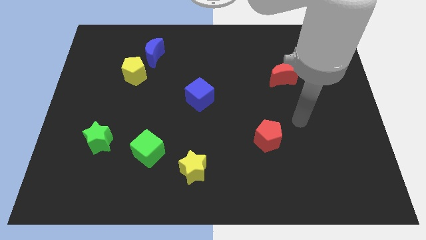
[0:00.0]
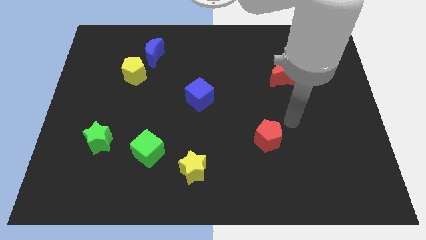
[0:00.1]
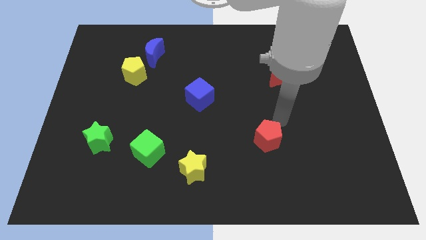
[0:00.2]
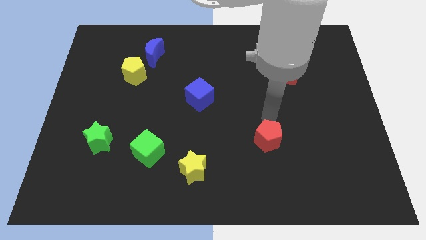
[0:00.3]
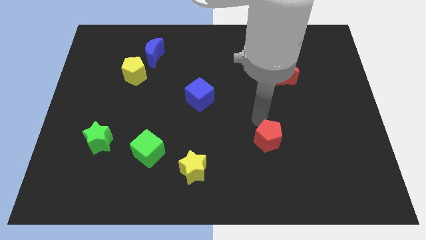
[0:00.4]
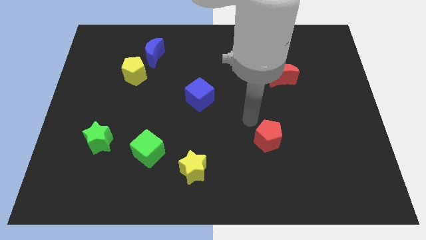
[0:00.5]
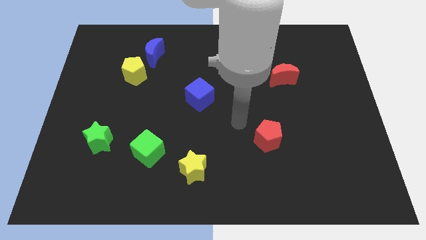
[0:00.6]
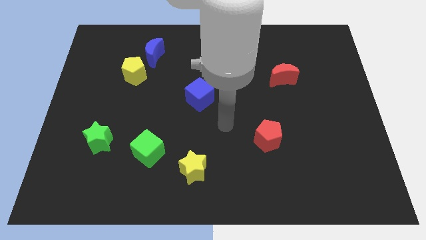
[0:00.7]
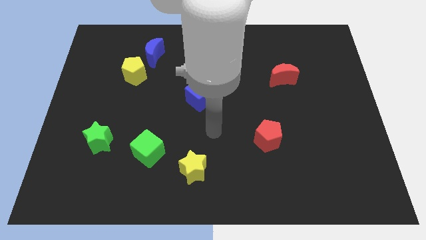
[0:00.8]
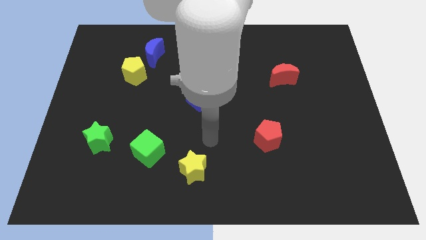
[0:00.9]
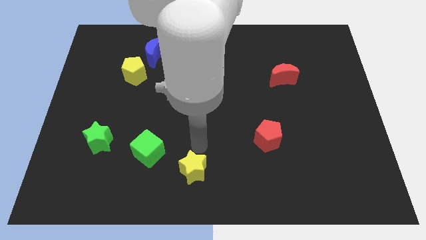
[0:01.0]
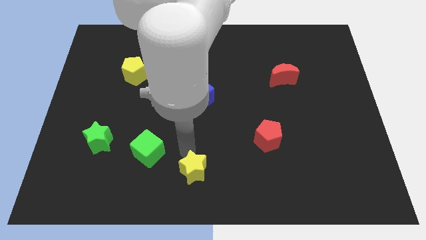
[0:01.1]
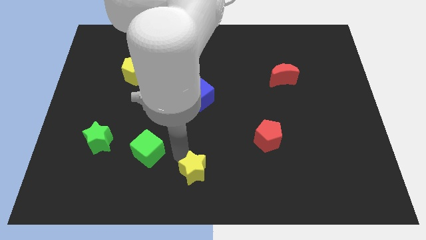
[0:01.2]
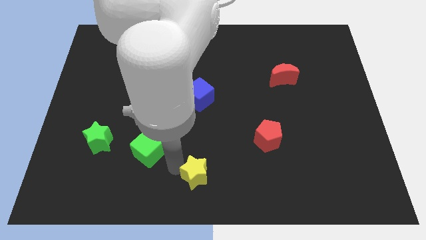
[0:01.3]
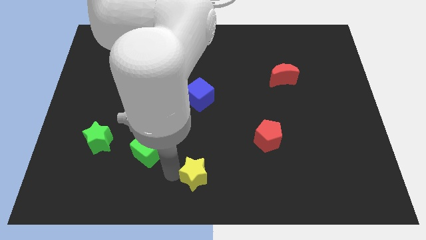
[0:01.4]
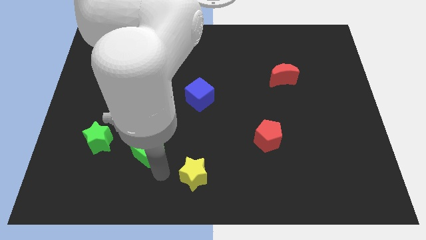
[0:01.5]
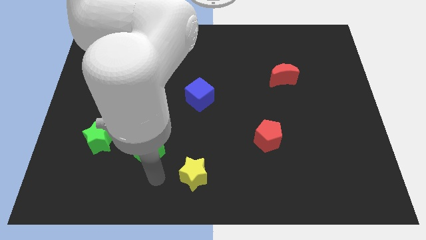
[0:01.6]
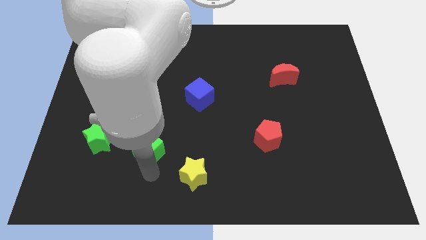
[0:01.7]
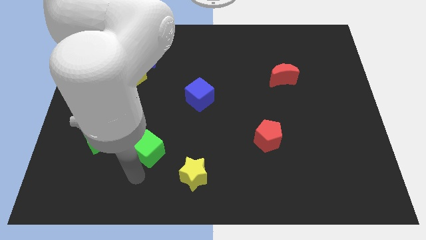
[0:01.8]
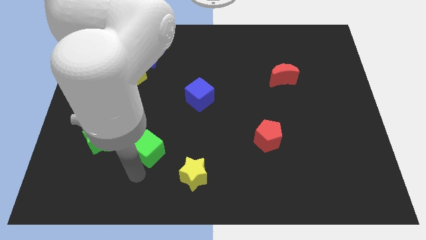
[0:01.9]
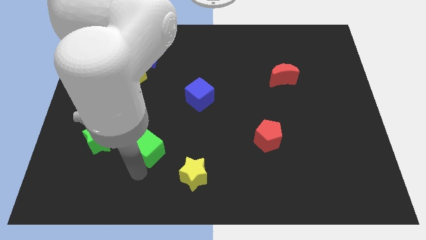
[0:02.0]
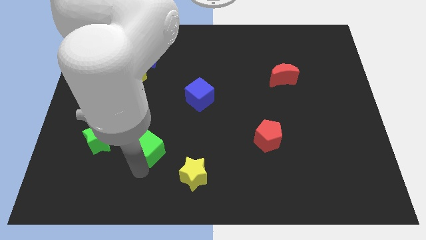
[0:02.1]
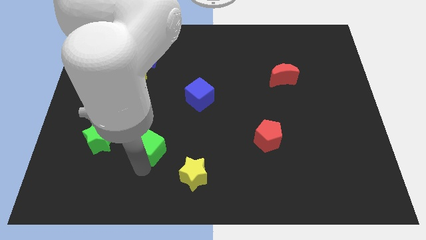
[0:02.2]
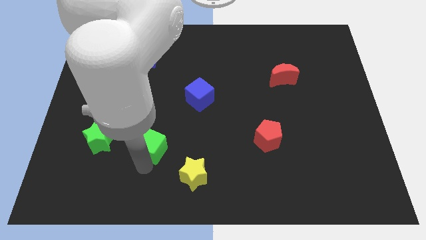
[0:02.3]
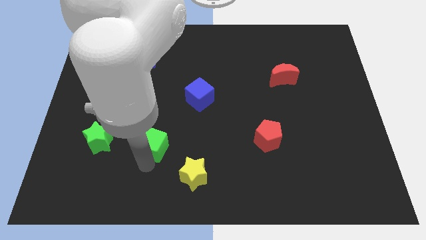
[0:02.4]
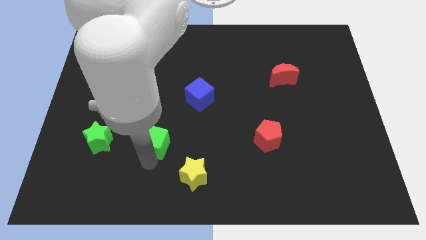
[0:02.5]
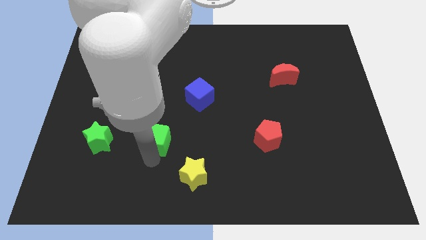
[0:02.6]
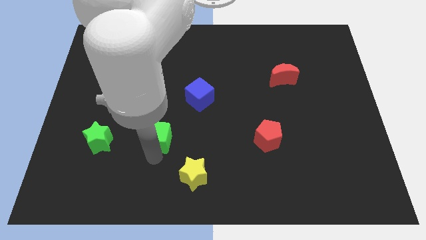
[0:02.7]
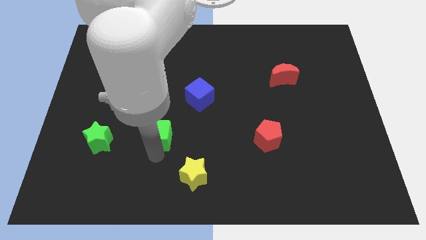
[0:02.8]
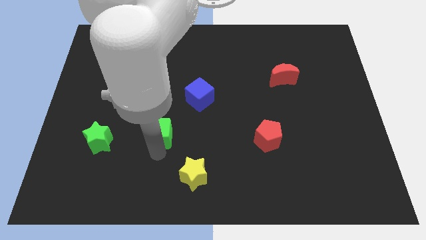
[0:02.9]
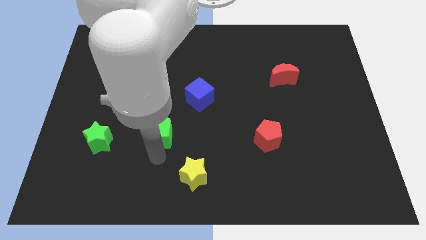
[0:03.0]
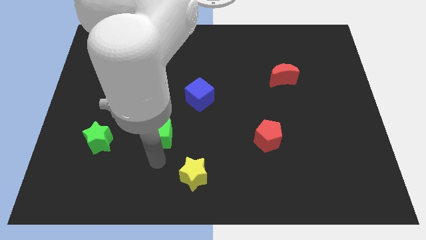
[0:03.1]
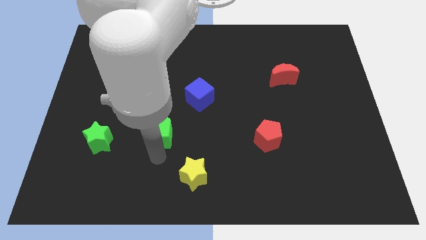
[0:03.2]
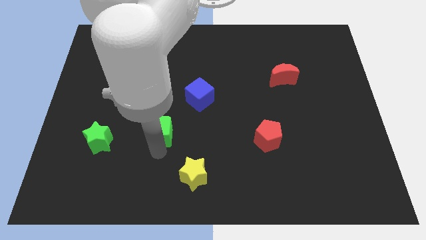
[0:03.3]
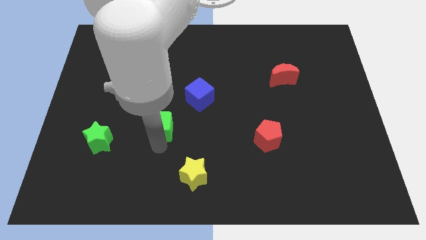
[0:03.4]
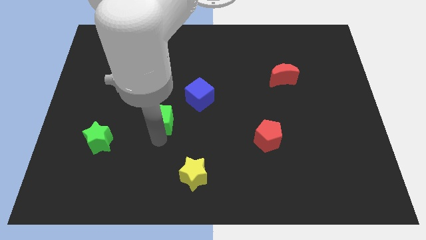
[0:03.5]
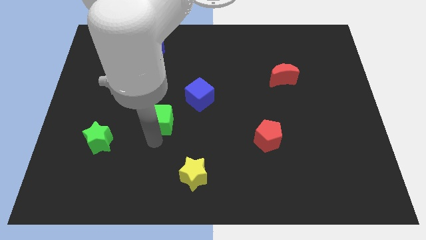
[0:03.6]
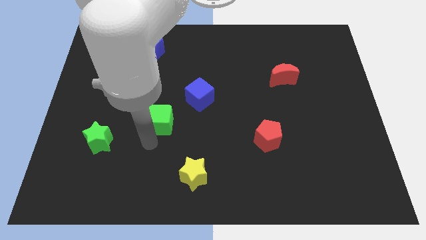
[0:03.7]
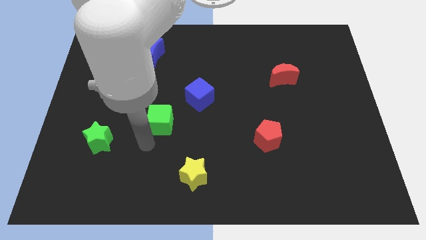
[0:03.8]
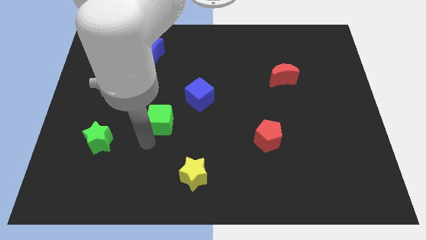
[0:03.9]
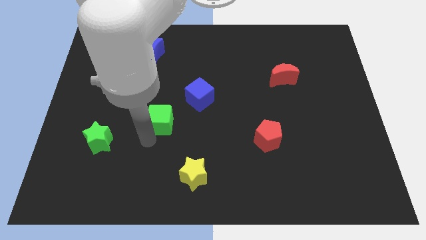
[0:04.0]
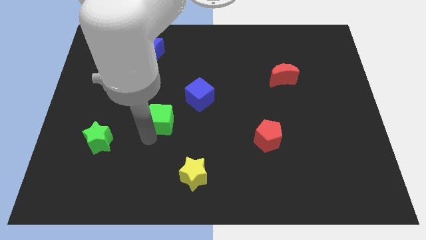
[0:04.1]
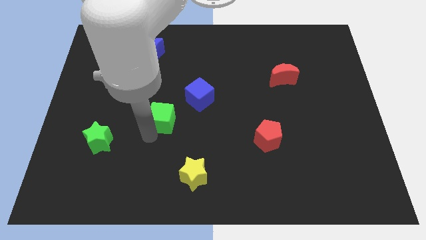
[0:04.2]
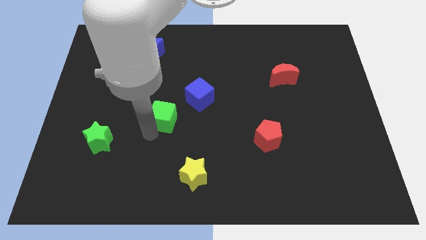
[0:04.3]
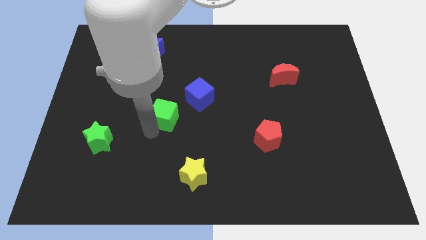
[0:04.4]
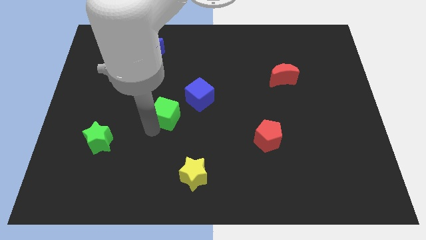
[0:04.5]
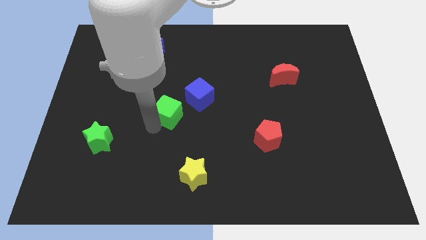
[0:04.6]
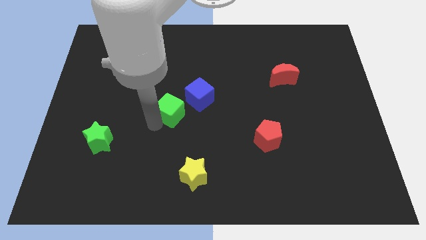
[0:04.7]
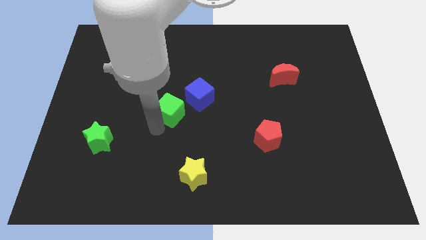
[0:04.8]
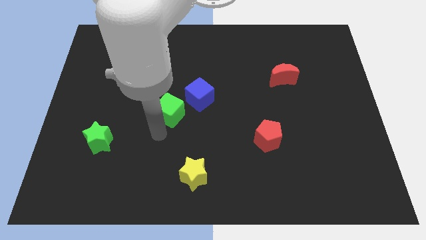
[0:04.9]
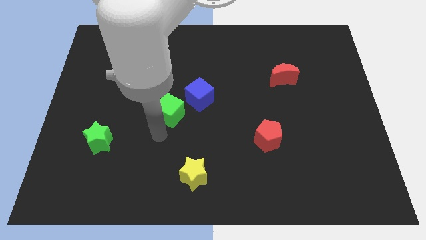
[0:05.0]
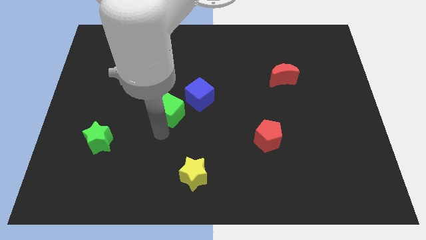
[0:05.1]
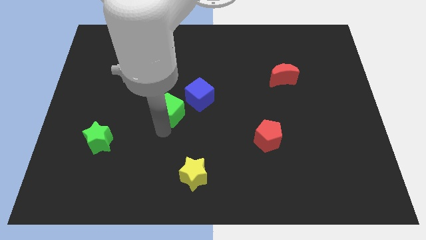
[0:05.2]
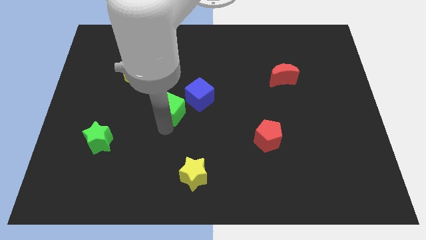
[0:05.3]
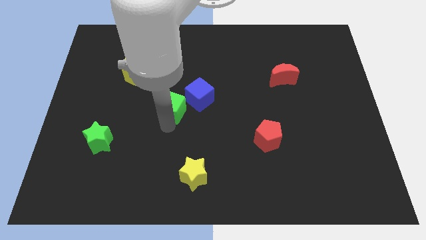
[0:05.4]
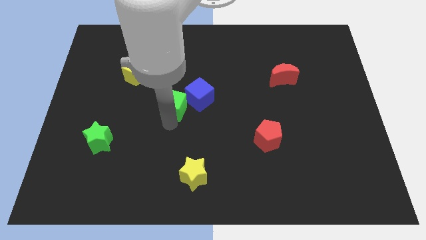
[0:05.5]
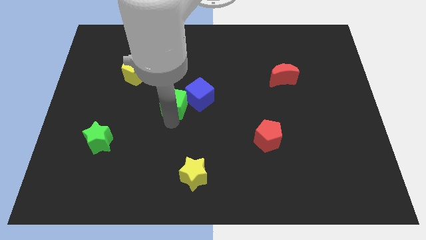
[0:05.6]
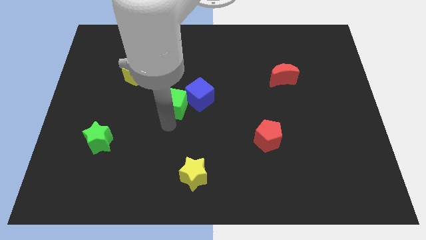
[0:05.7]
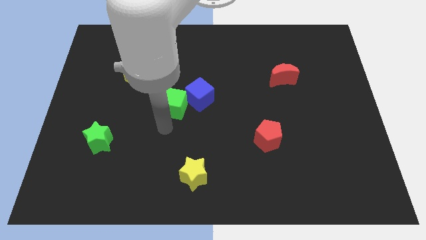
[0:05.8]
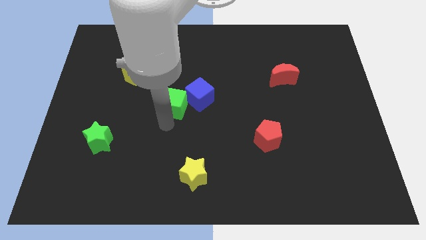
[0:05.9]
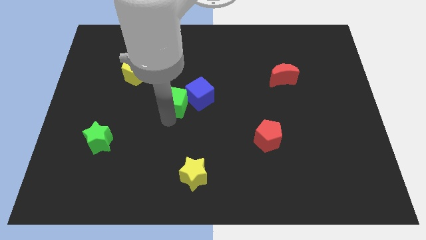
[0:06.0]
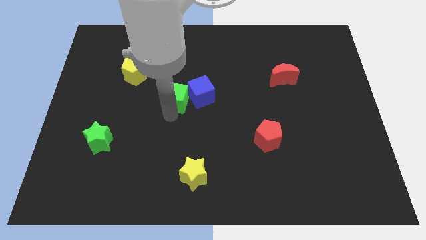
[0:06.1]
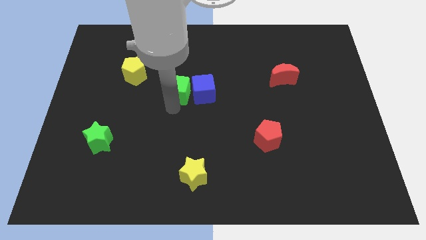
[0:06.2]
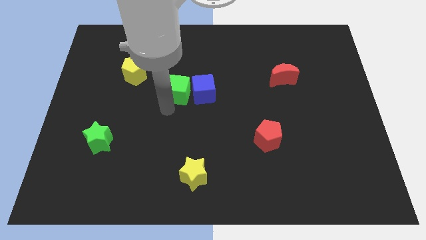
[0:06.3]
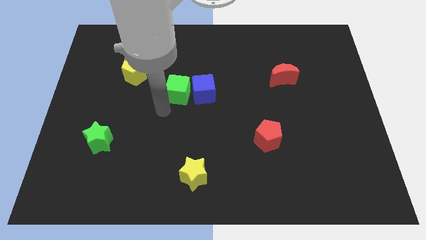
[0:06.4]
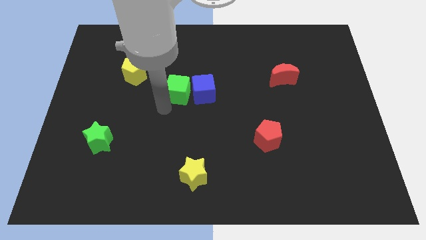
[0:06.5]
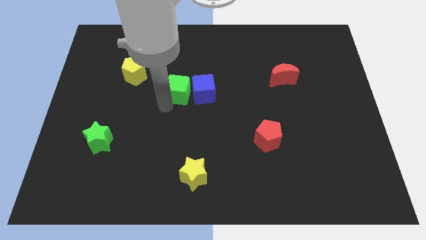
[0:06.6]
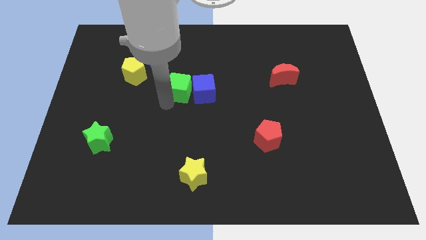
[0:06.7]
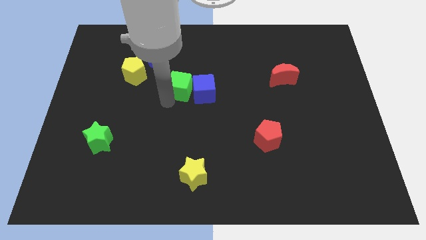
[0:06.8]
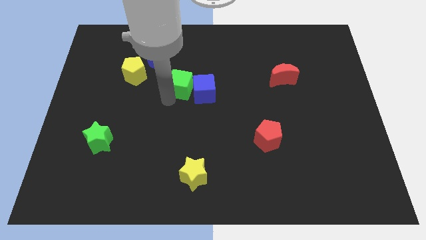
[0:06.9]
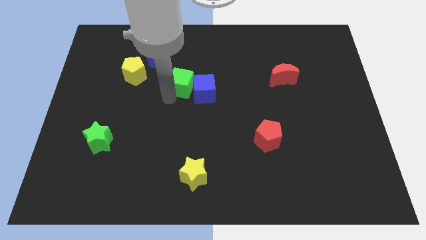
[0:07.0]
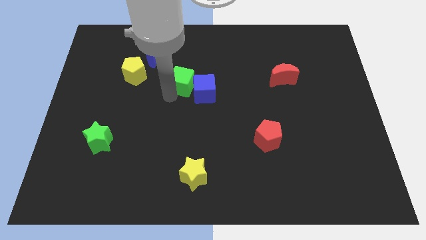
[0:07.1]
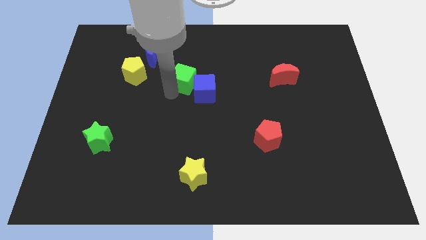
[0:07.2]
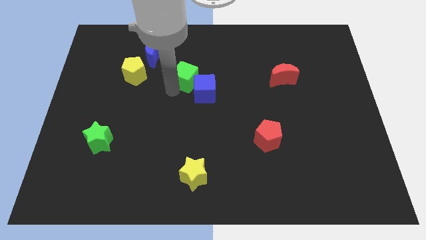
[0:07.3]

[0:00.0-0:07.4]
push the green cube above the blue cube
